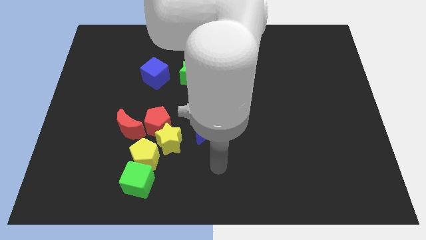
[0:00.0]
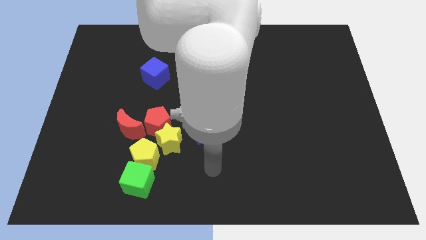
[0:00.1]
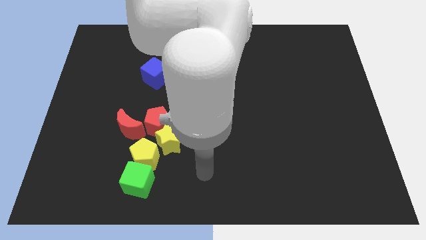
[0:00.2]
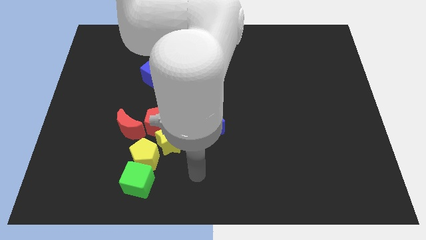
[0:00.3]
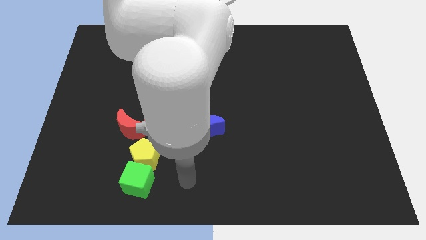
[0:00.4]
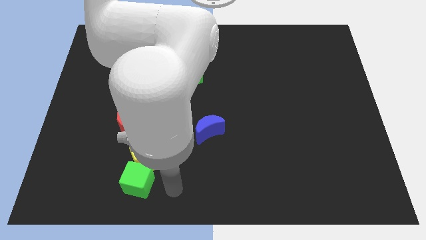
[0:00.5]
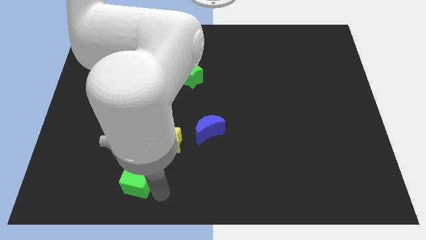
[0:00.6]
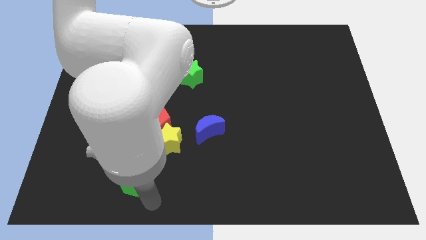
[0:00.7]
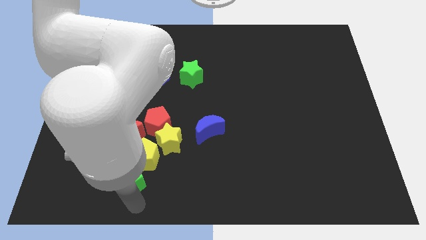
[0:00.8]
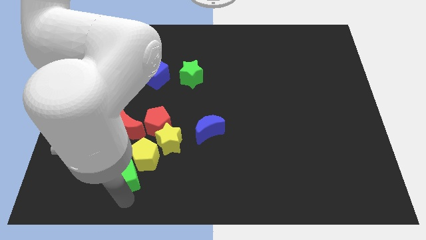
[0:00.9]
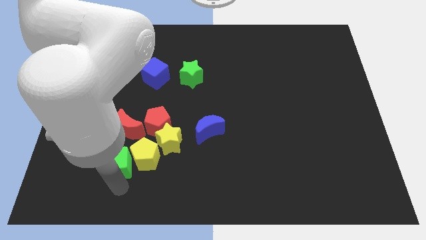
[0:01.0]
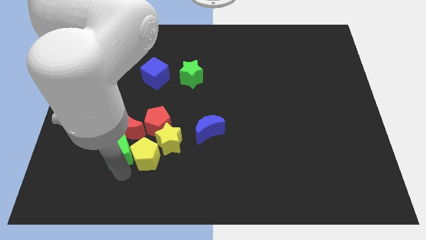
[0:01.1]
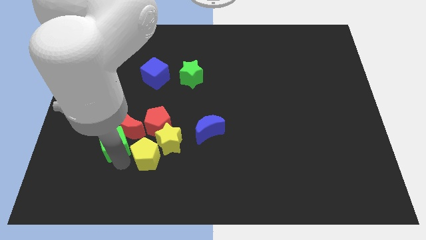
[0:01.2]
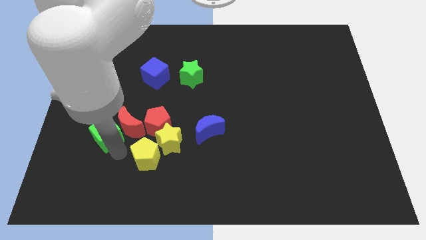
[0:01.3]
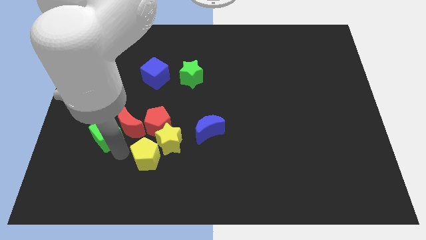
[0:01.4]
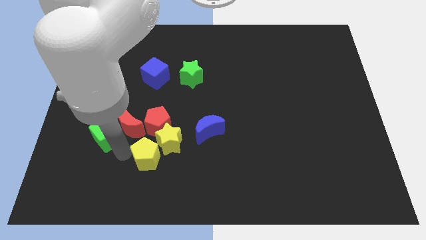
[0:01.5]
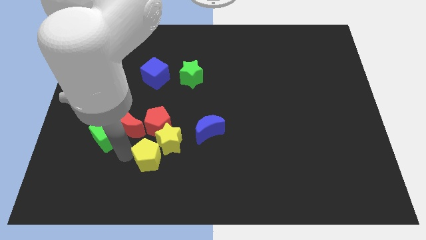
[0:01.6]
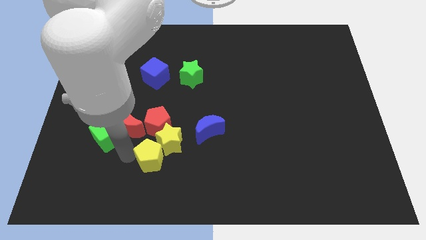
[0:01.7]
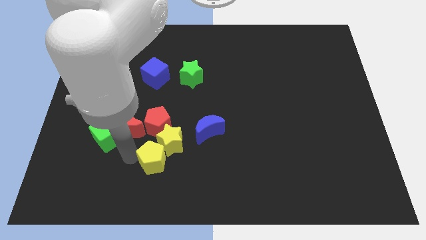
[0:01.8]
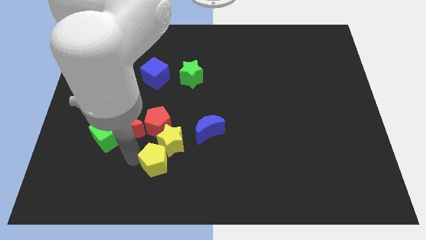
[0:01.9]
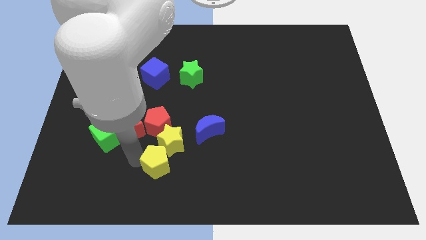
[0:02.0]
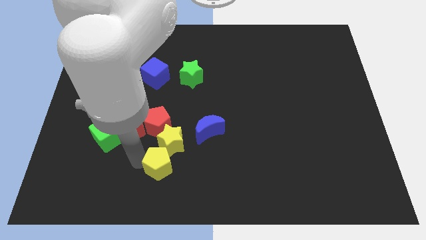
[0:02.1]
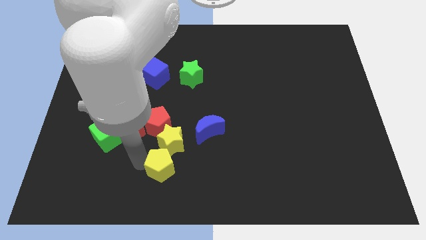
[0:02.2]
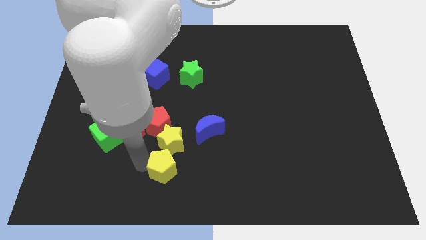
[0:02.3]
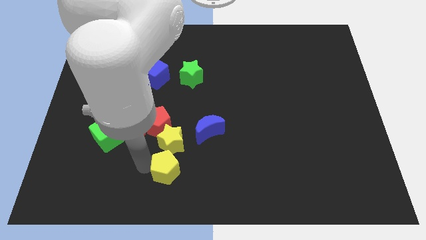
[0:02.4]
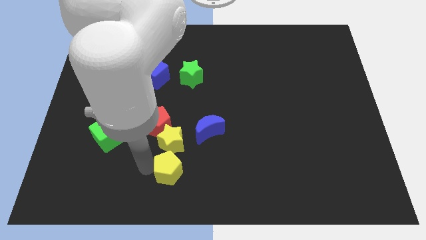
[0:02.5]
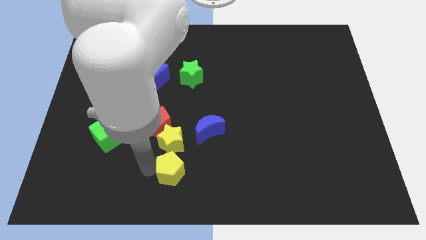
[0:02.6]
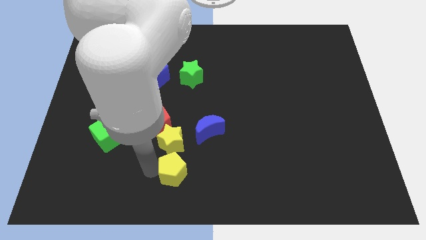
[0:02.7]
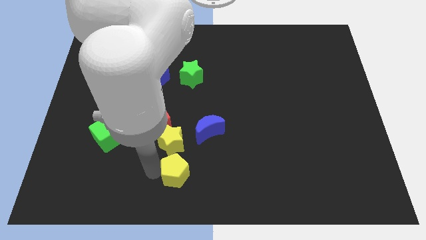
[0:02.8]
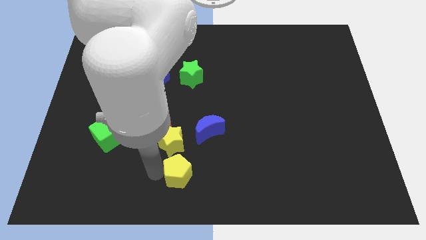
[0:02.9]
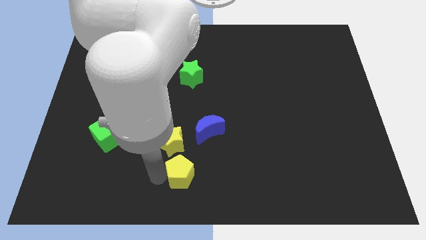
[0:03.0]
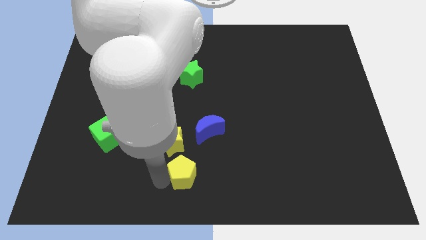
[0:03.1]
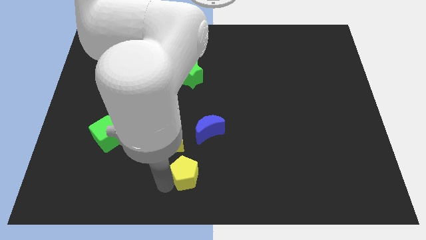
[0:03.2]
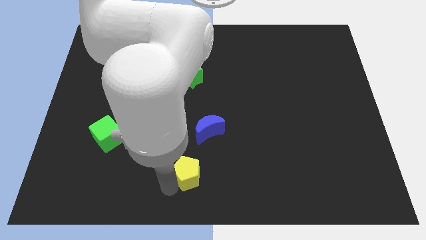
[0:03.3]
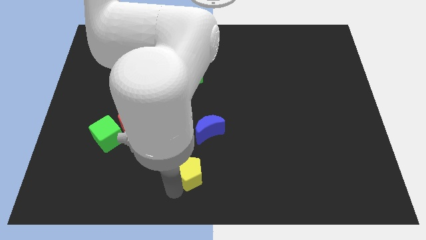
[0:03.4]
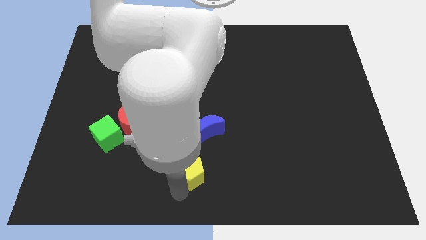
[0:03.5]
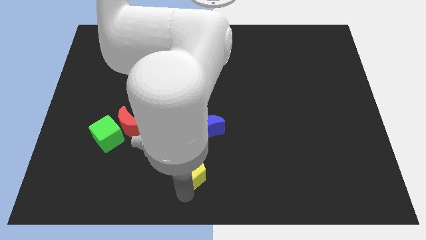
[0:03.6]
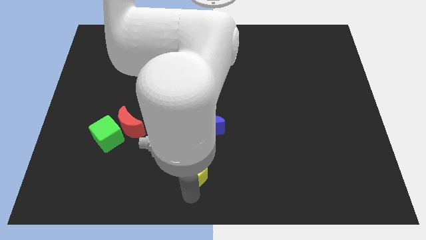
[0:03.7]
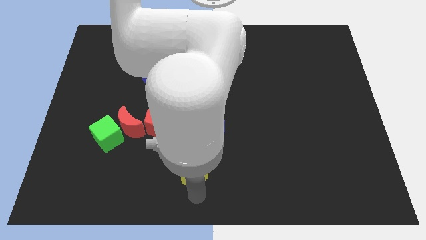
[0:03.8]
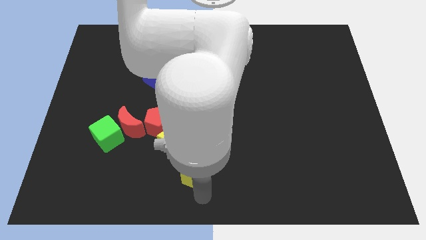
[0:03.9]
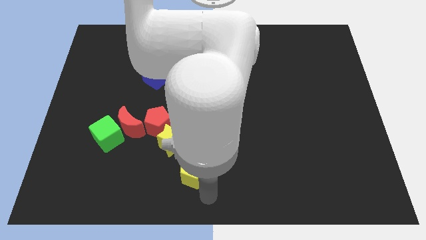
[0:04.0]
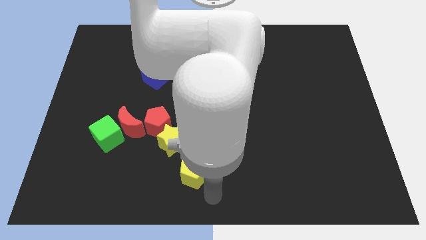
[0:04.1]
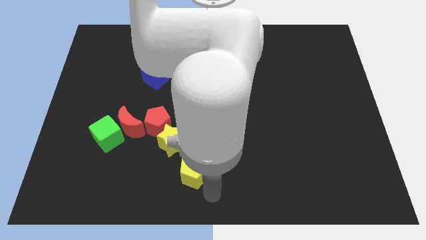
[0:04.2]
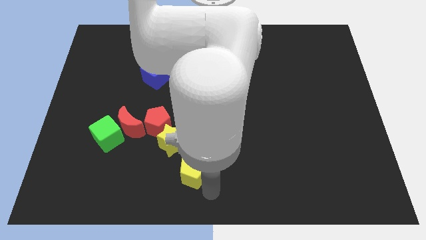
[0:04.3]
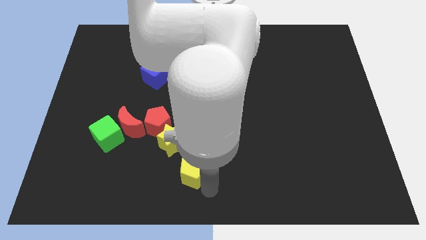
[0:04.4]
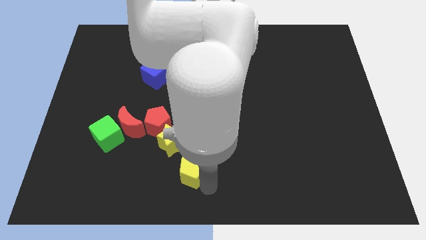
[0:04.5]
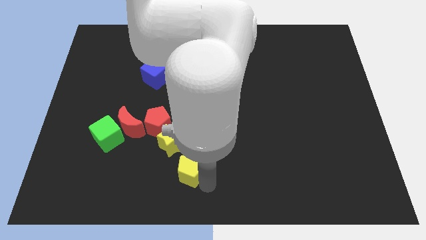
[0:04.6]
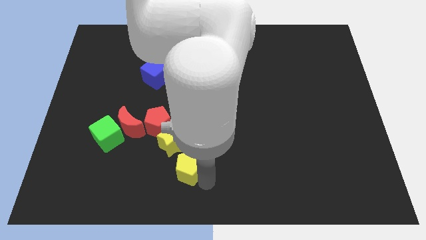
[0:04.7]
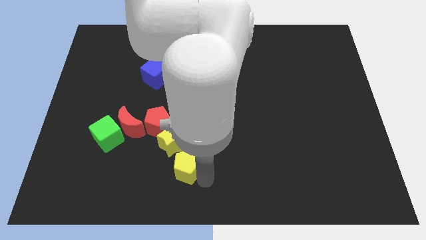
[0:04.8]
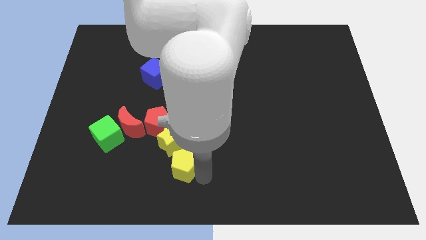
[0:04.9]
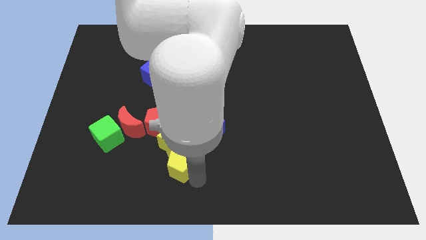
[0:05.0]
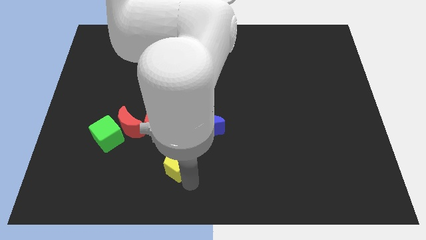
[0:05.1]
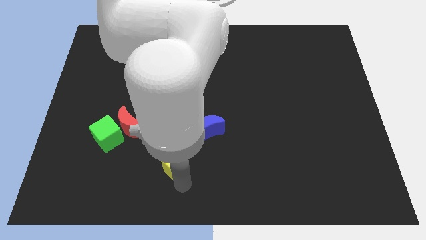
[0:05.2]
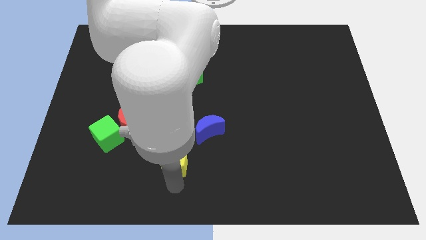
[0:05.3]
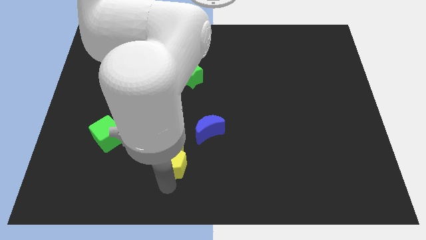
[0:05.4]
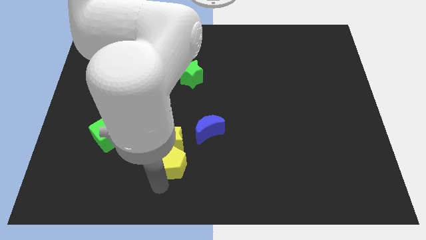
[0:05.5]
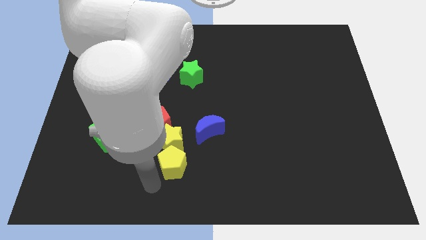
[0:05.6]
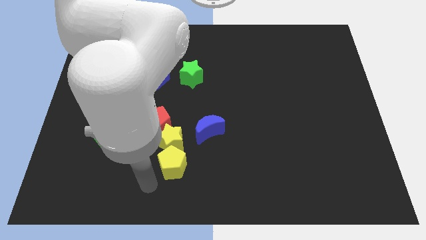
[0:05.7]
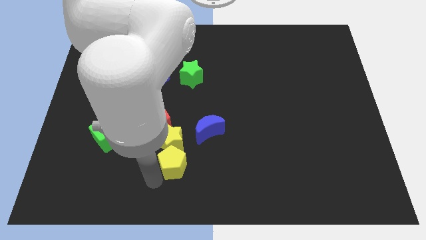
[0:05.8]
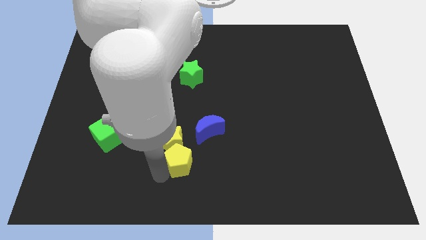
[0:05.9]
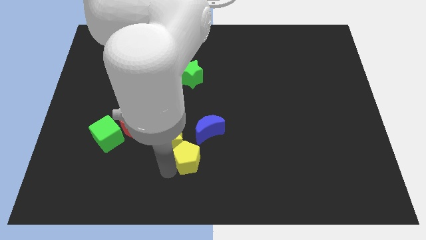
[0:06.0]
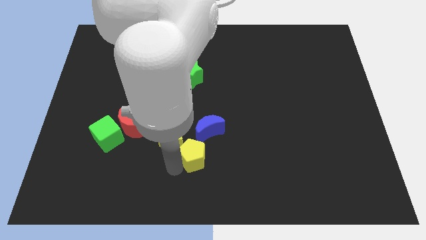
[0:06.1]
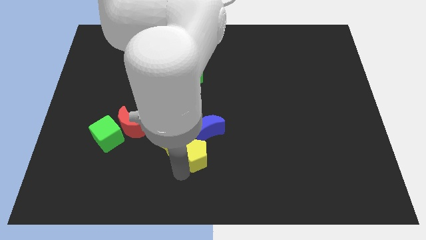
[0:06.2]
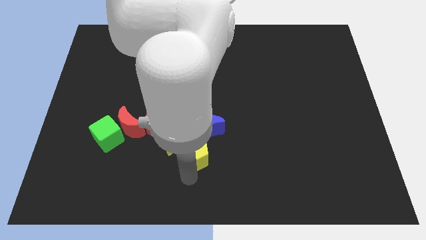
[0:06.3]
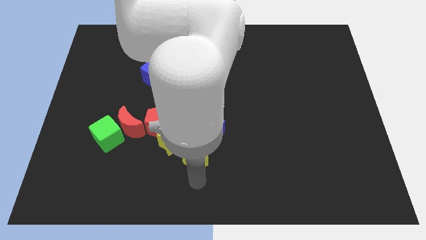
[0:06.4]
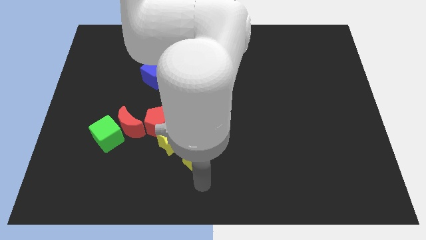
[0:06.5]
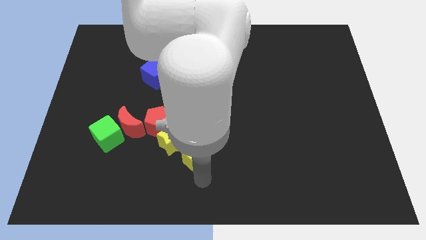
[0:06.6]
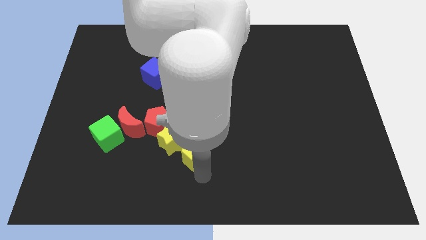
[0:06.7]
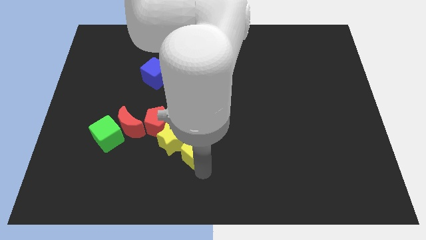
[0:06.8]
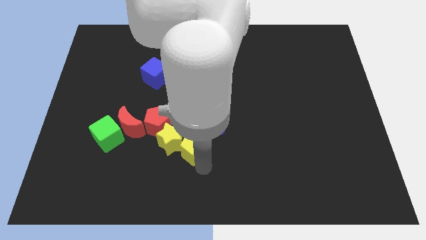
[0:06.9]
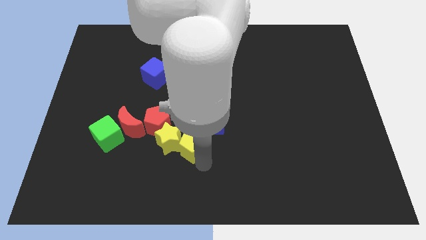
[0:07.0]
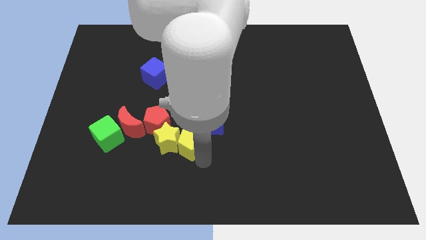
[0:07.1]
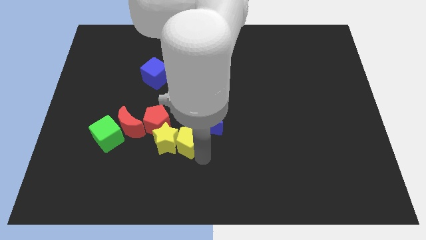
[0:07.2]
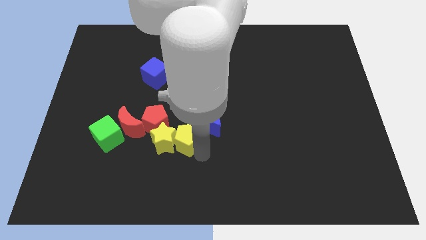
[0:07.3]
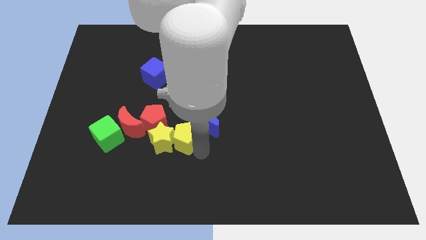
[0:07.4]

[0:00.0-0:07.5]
move the yellow pentagon to the middle
